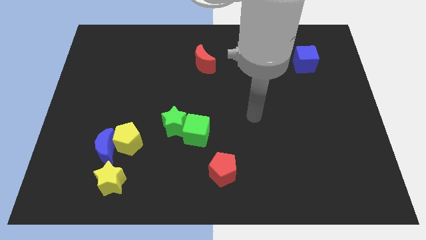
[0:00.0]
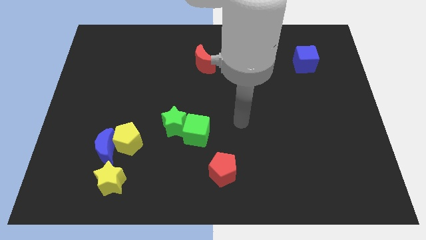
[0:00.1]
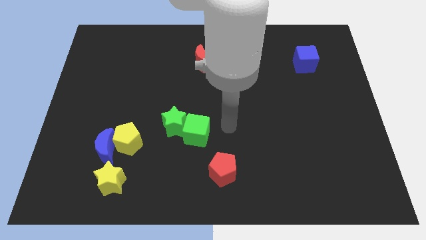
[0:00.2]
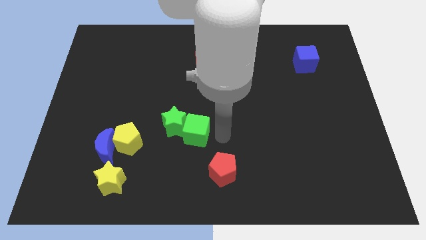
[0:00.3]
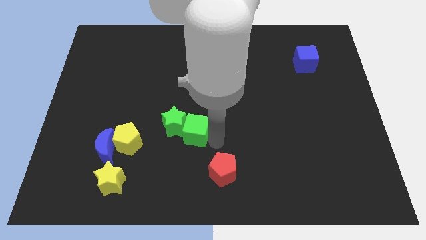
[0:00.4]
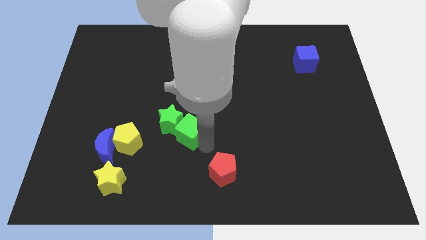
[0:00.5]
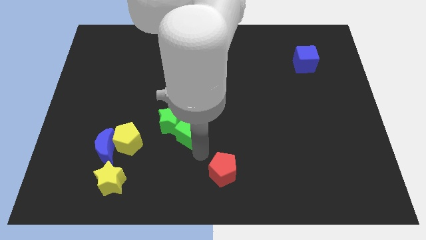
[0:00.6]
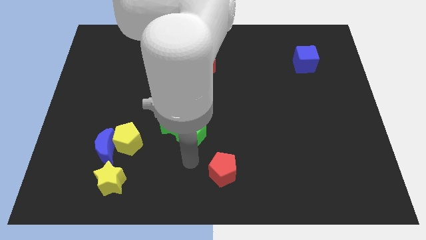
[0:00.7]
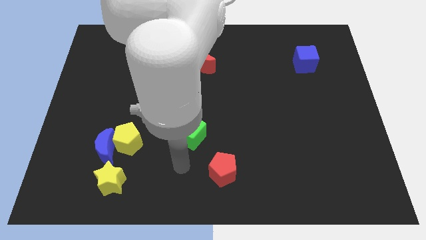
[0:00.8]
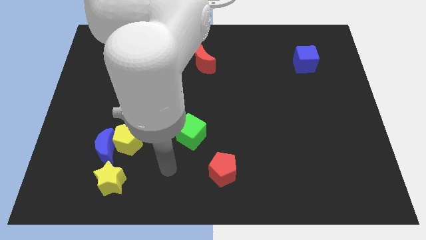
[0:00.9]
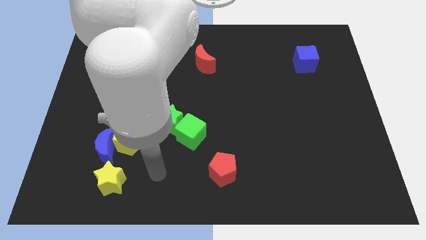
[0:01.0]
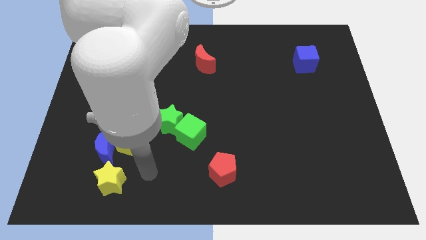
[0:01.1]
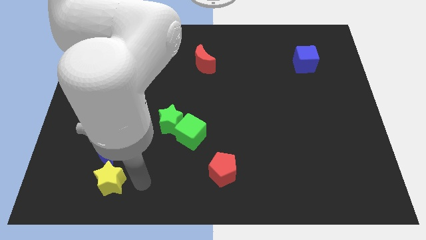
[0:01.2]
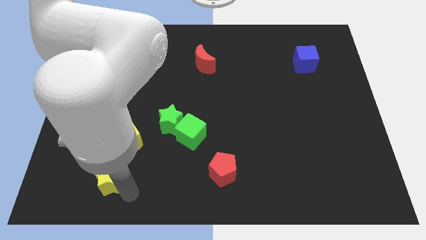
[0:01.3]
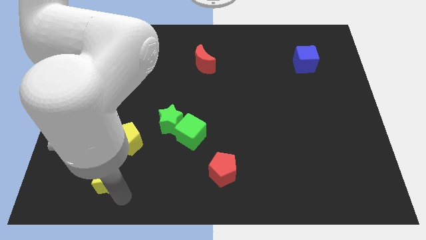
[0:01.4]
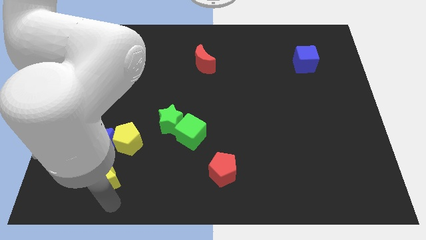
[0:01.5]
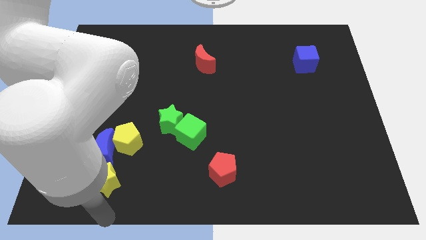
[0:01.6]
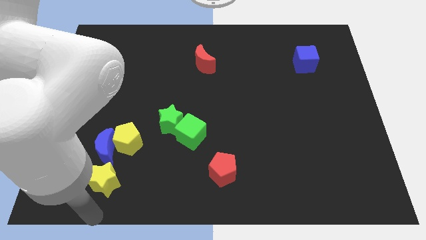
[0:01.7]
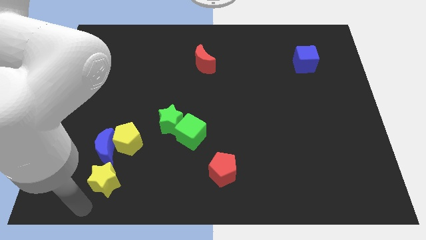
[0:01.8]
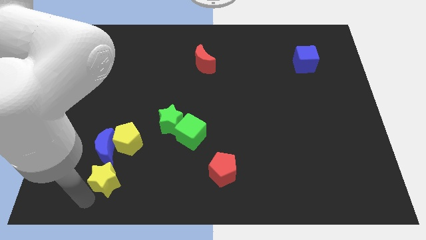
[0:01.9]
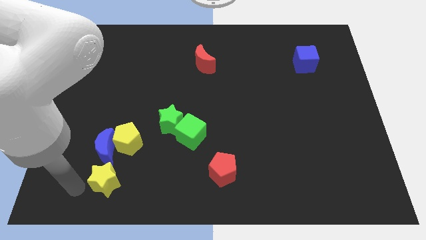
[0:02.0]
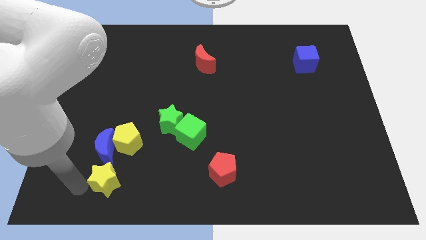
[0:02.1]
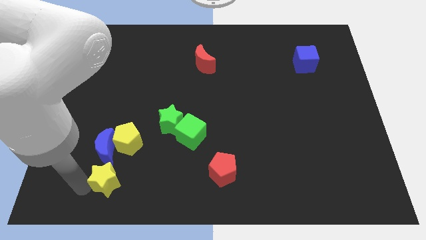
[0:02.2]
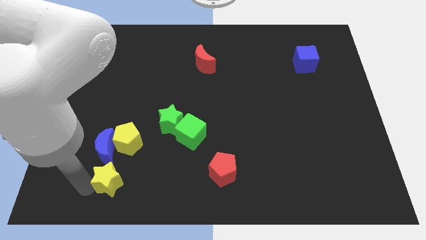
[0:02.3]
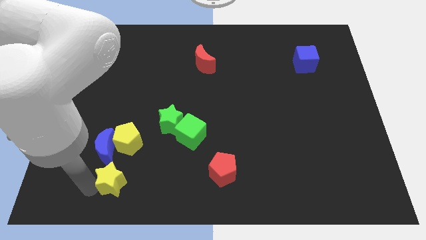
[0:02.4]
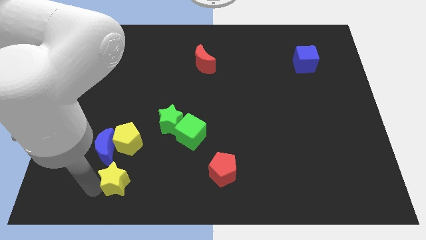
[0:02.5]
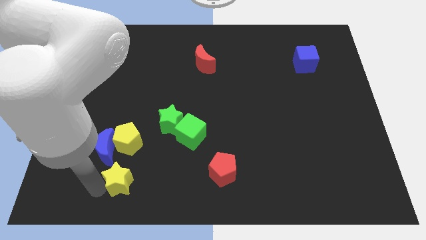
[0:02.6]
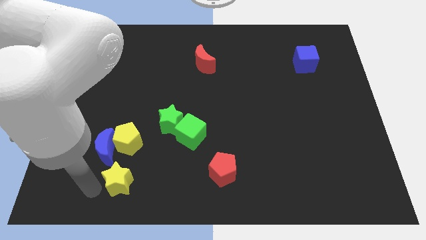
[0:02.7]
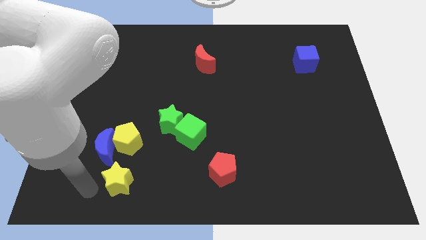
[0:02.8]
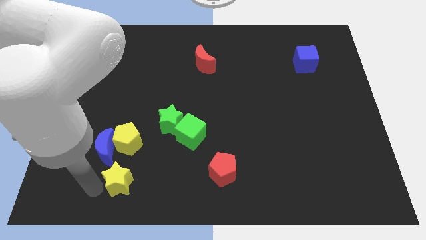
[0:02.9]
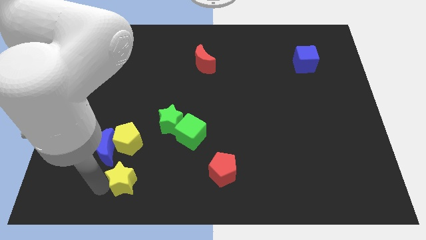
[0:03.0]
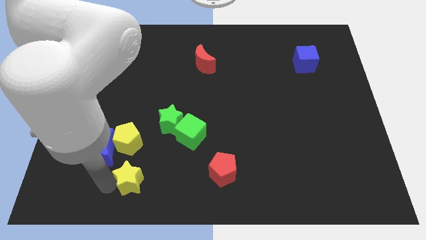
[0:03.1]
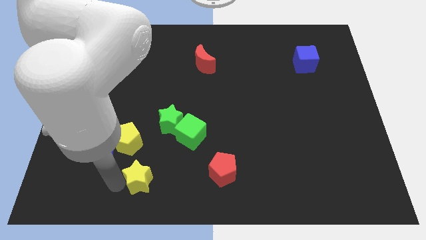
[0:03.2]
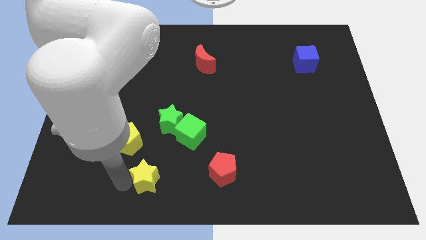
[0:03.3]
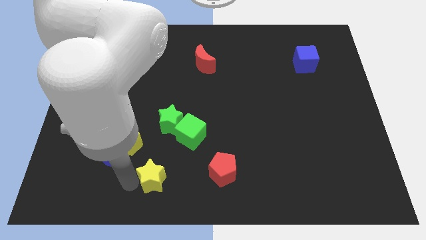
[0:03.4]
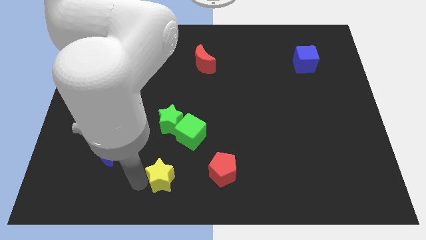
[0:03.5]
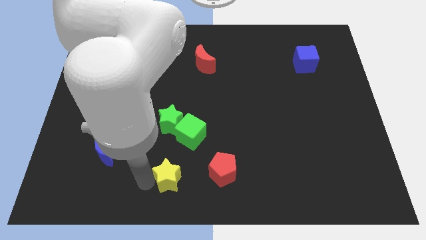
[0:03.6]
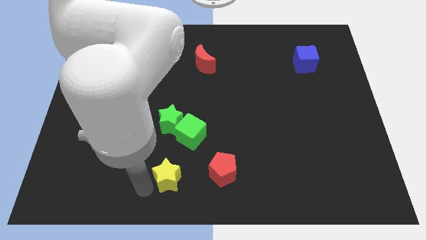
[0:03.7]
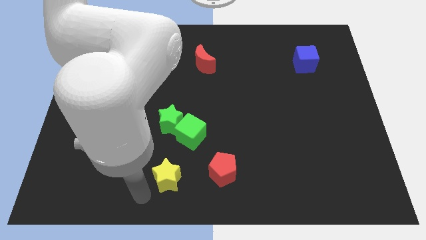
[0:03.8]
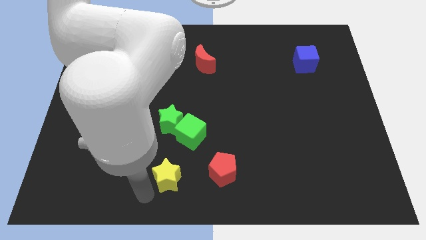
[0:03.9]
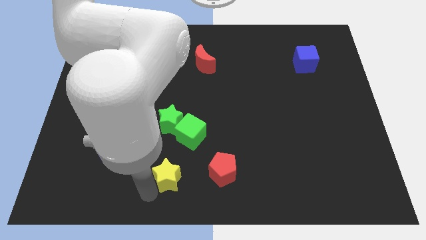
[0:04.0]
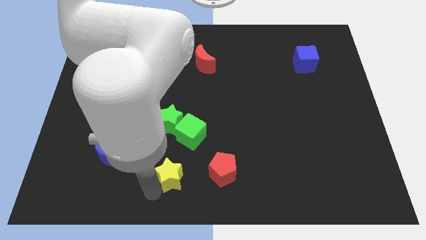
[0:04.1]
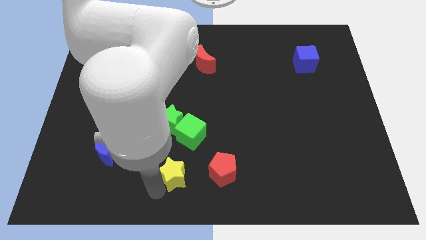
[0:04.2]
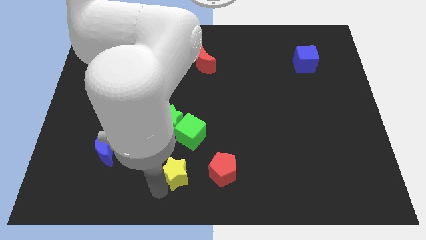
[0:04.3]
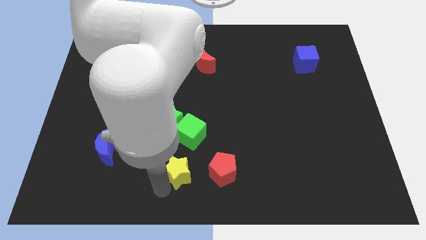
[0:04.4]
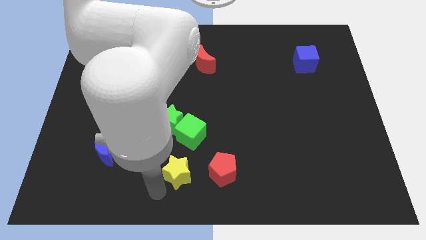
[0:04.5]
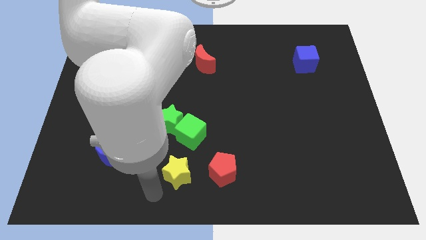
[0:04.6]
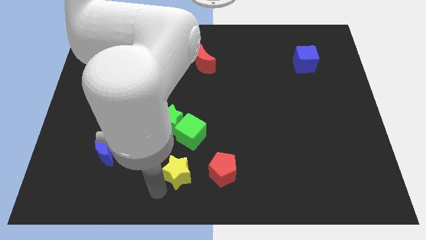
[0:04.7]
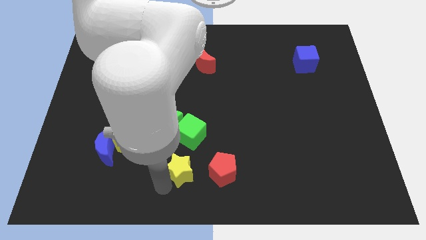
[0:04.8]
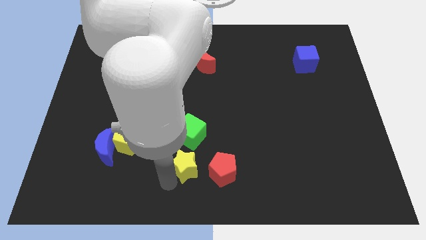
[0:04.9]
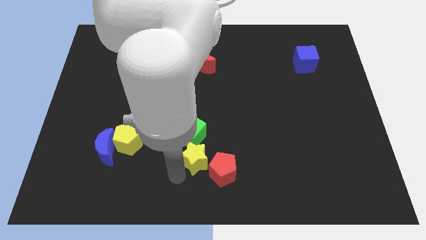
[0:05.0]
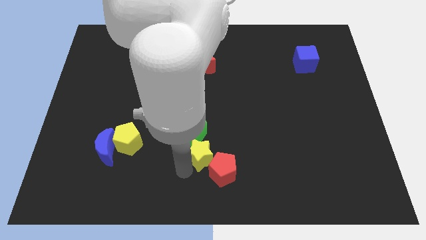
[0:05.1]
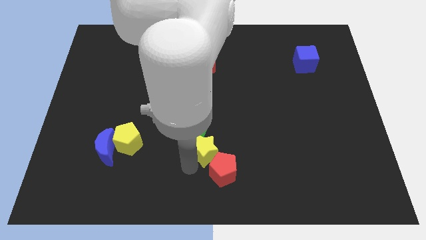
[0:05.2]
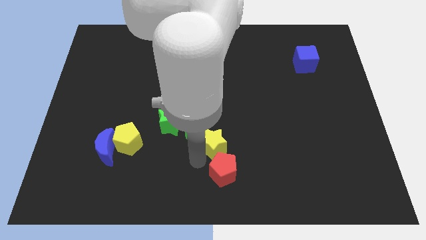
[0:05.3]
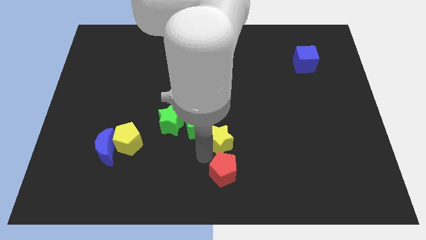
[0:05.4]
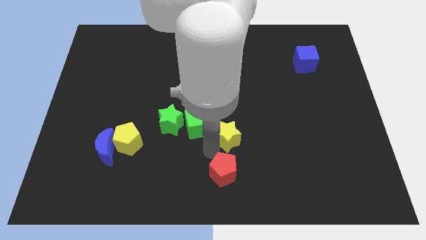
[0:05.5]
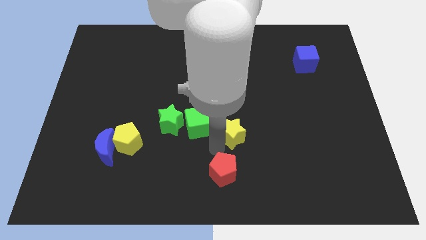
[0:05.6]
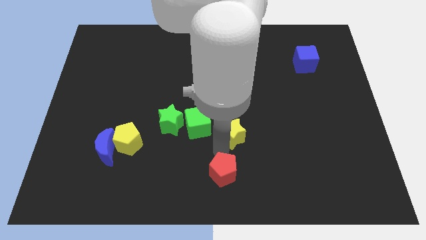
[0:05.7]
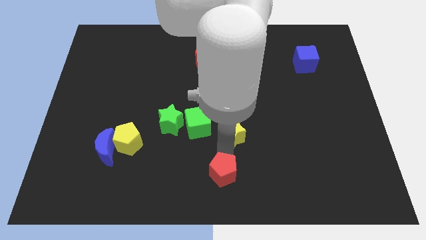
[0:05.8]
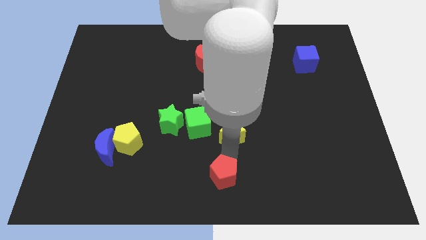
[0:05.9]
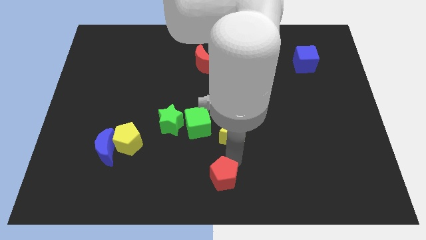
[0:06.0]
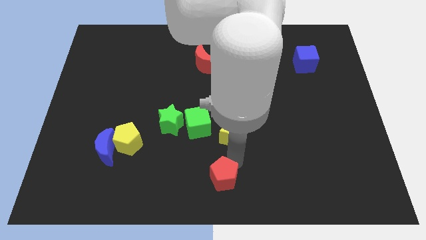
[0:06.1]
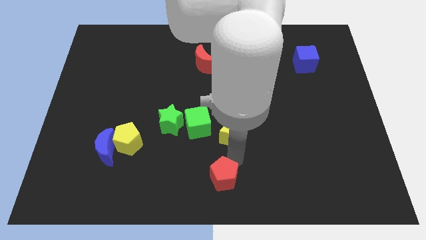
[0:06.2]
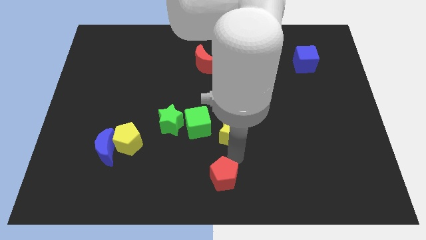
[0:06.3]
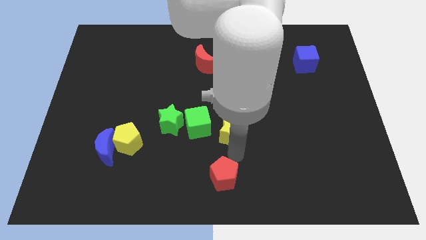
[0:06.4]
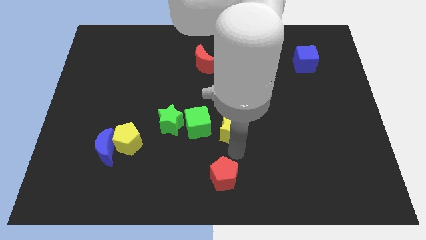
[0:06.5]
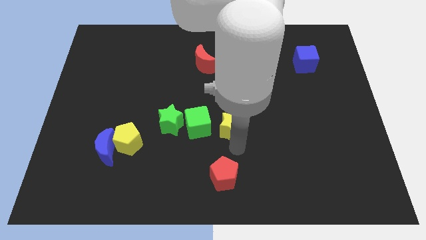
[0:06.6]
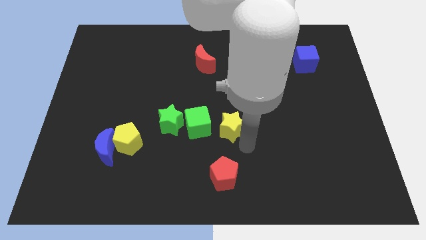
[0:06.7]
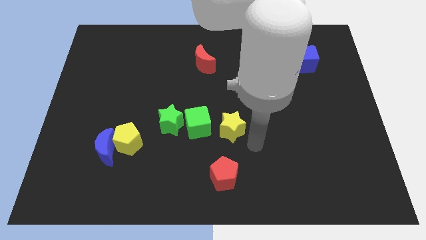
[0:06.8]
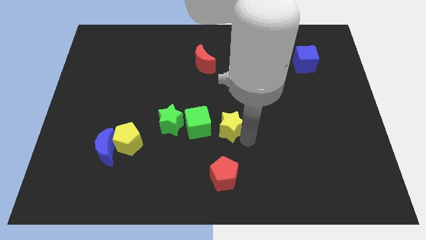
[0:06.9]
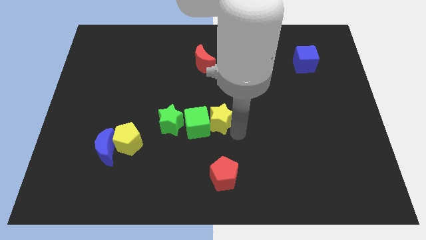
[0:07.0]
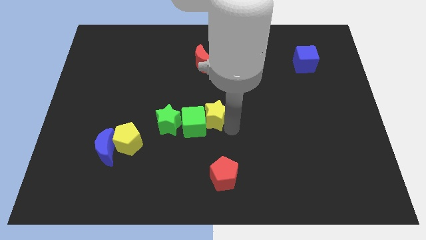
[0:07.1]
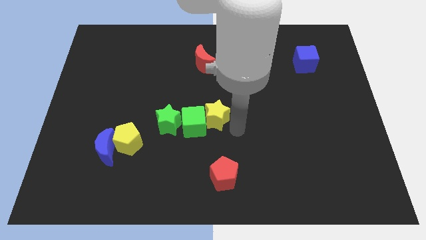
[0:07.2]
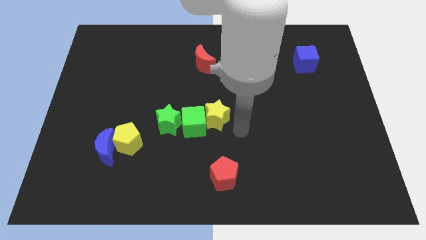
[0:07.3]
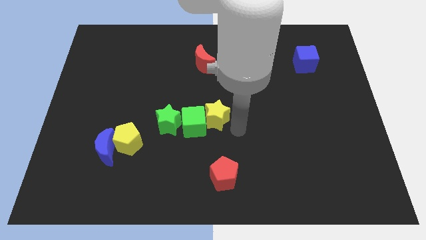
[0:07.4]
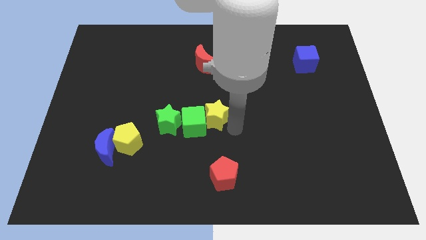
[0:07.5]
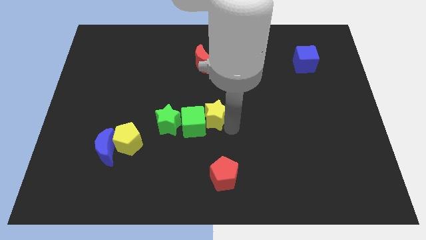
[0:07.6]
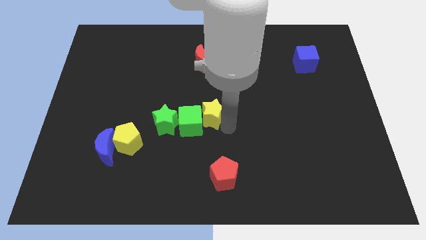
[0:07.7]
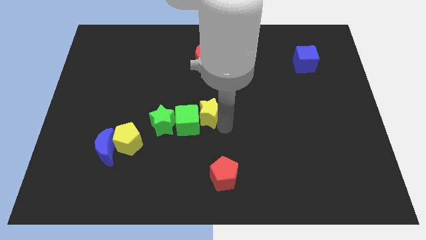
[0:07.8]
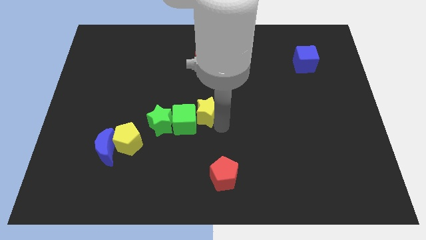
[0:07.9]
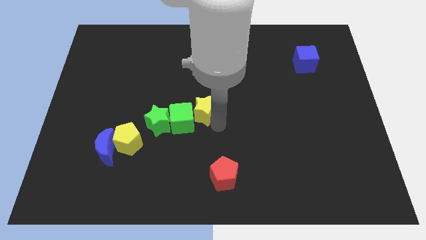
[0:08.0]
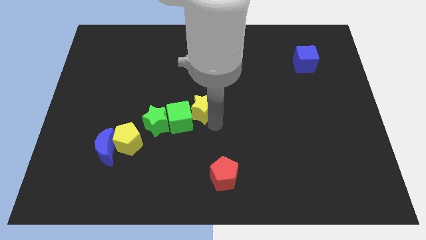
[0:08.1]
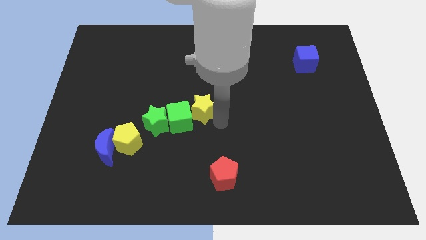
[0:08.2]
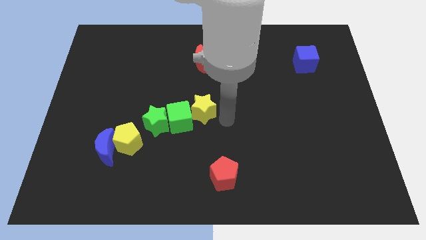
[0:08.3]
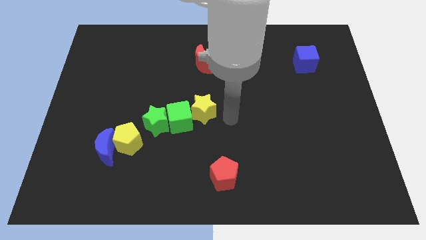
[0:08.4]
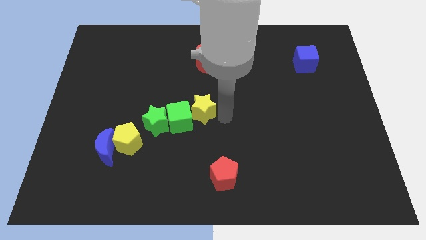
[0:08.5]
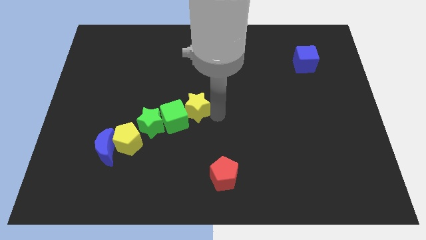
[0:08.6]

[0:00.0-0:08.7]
push the yellow star to the top right of the green star
